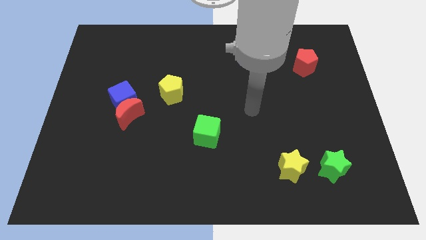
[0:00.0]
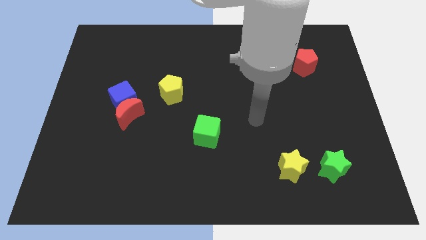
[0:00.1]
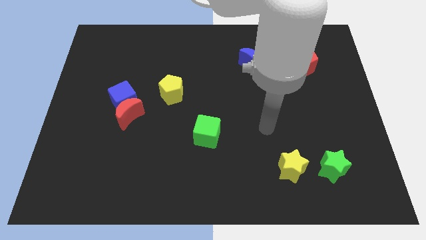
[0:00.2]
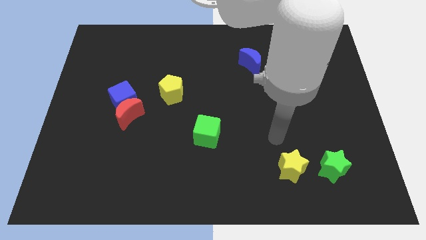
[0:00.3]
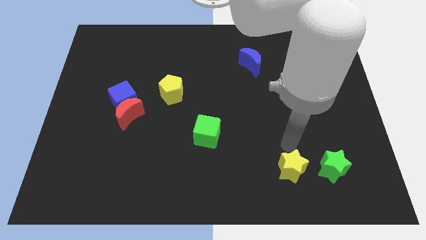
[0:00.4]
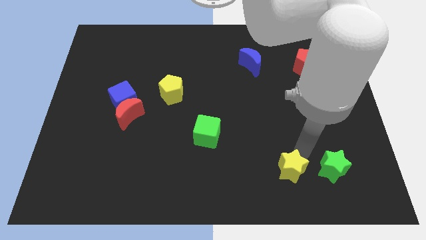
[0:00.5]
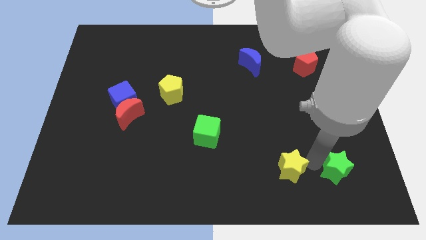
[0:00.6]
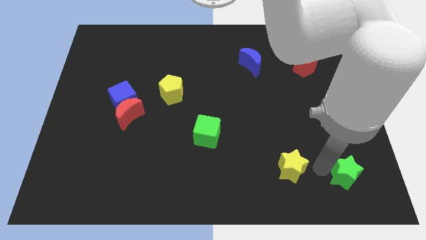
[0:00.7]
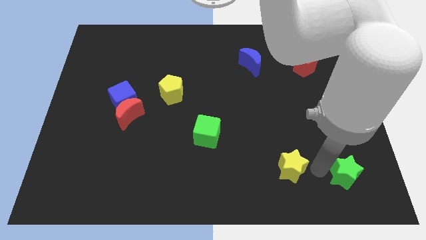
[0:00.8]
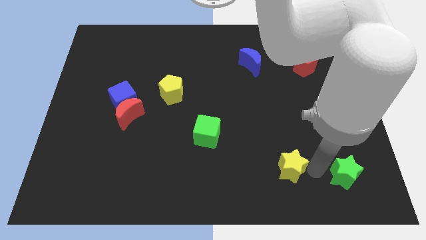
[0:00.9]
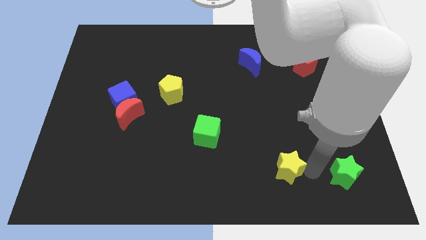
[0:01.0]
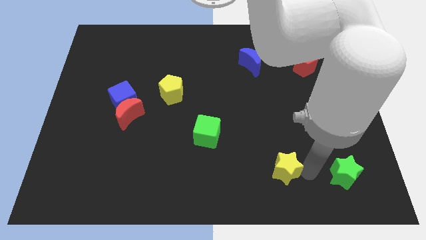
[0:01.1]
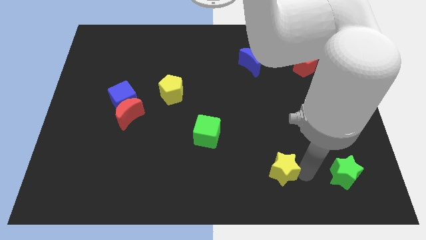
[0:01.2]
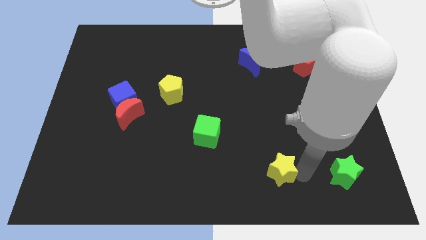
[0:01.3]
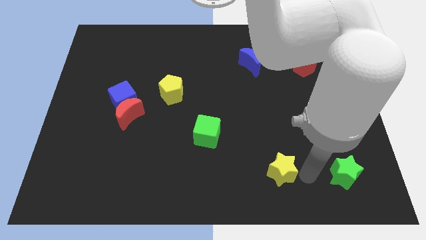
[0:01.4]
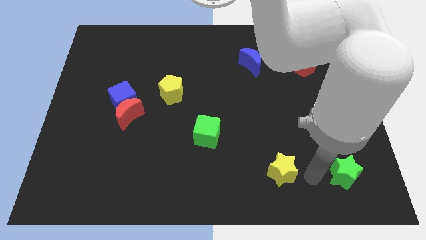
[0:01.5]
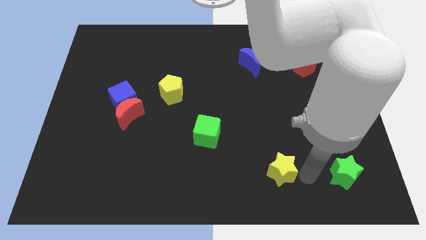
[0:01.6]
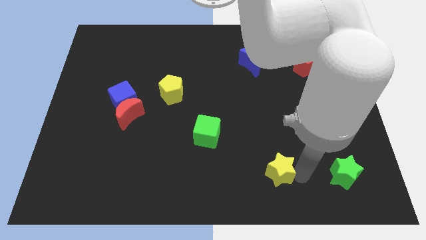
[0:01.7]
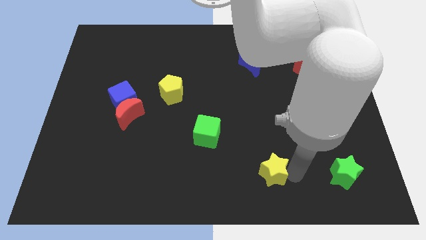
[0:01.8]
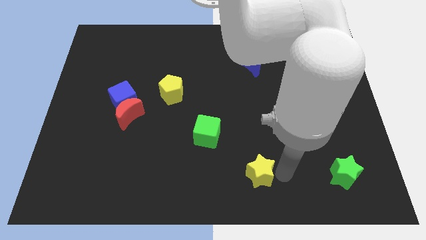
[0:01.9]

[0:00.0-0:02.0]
push the yellow star to the left a bit

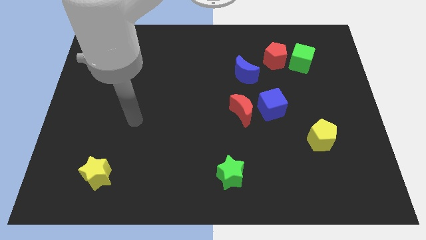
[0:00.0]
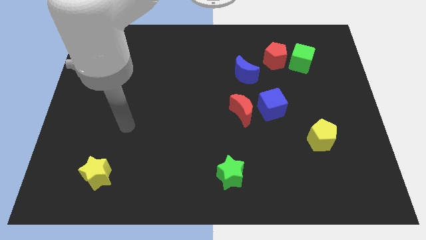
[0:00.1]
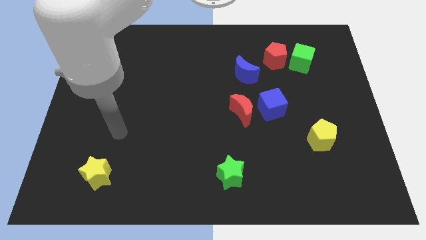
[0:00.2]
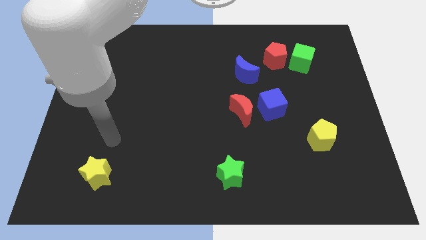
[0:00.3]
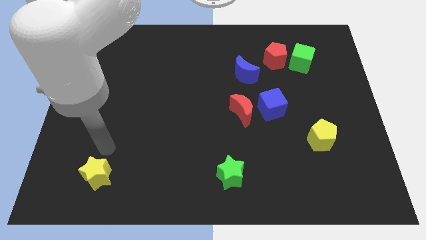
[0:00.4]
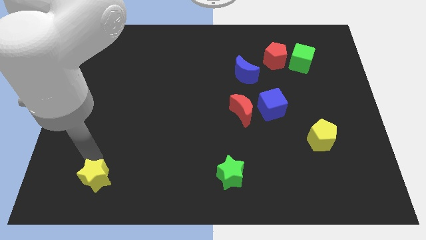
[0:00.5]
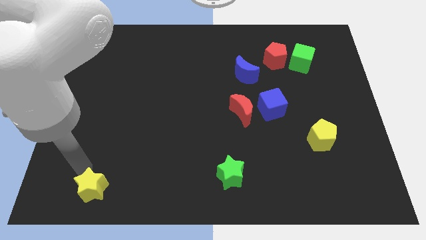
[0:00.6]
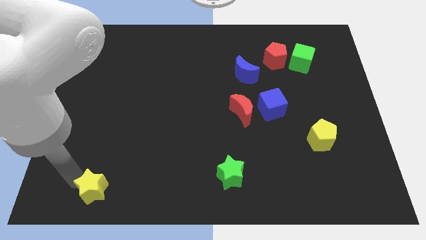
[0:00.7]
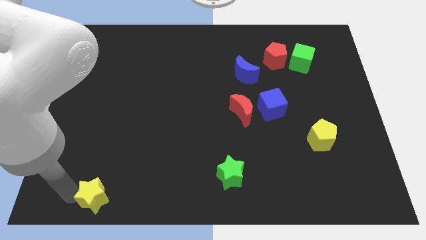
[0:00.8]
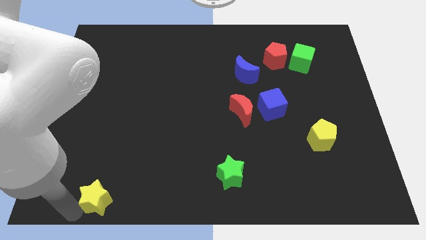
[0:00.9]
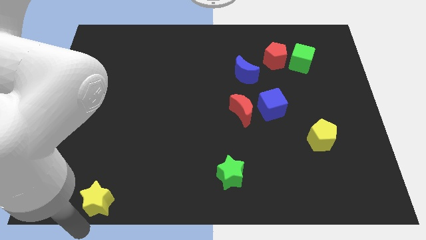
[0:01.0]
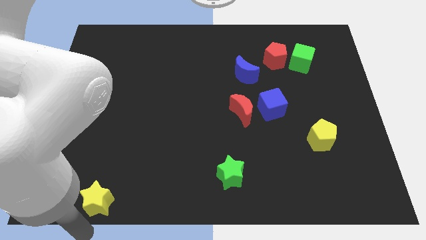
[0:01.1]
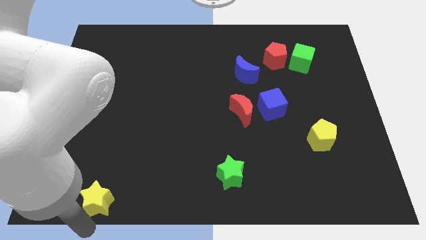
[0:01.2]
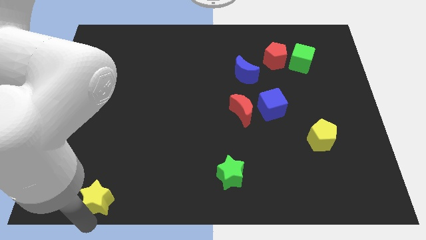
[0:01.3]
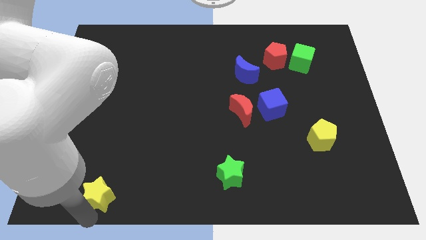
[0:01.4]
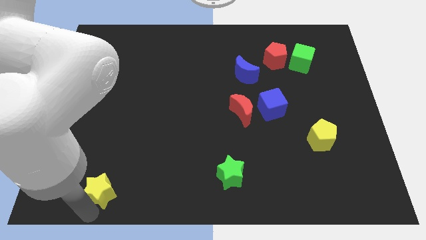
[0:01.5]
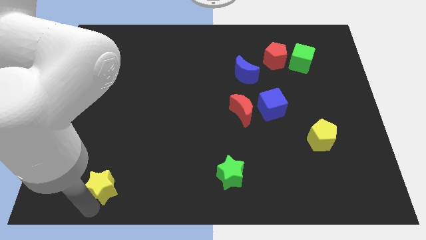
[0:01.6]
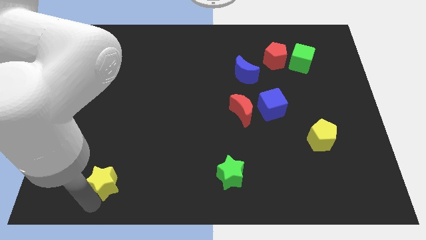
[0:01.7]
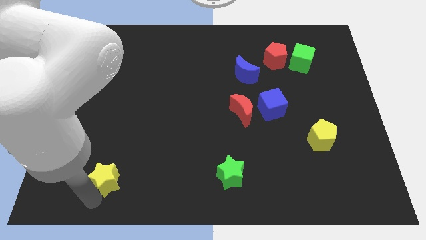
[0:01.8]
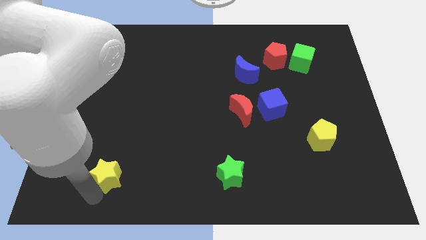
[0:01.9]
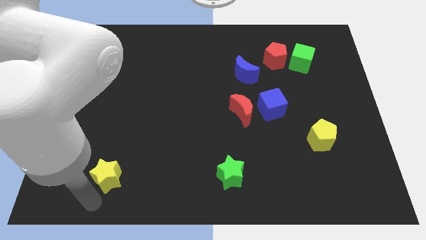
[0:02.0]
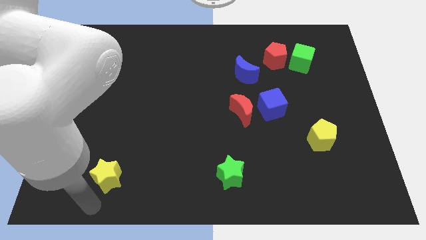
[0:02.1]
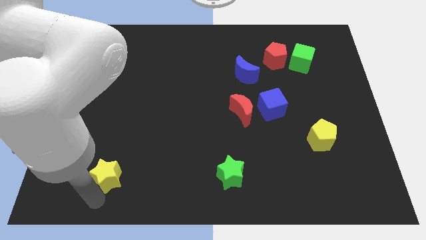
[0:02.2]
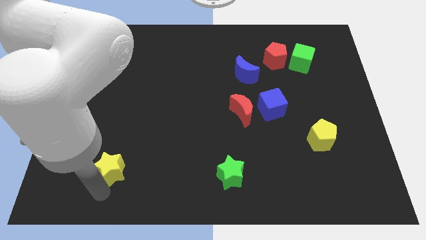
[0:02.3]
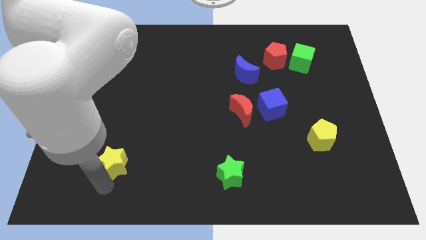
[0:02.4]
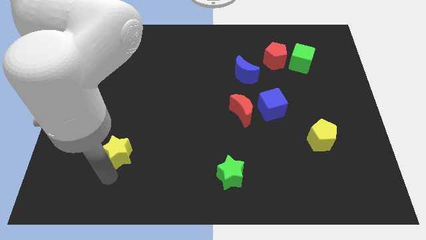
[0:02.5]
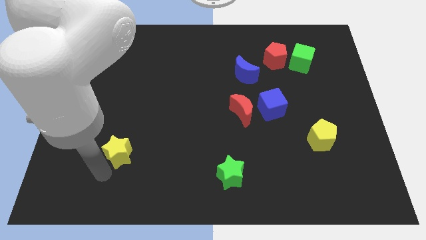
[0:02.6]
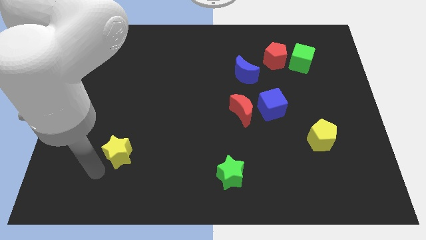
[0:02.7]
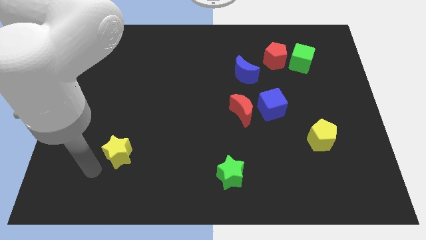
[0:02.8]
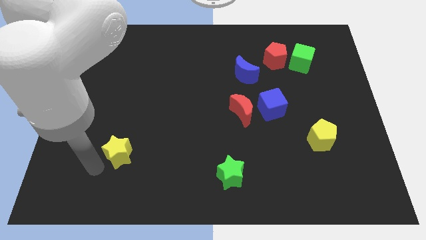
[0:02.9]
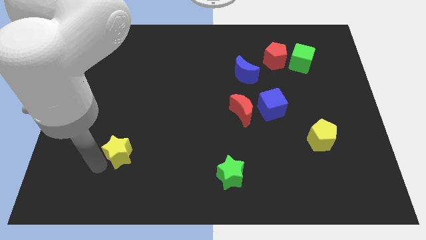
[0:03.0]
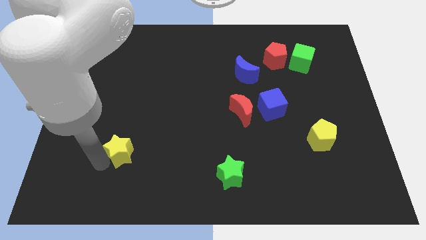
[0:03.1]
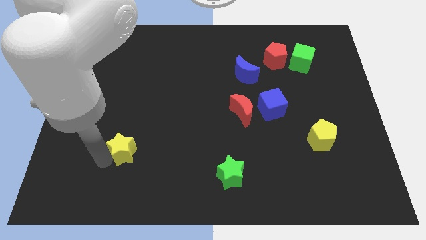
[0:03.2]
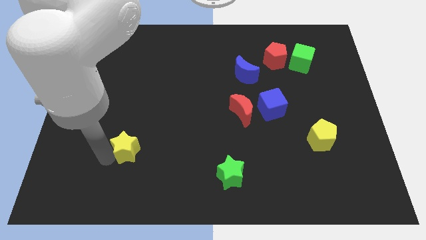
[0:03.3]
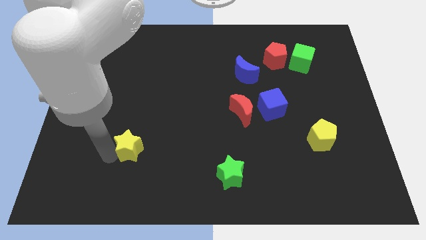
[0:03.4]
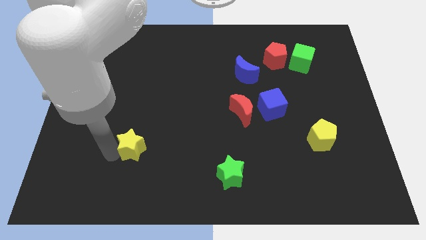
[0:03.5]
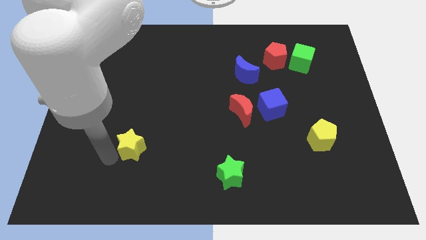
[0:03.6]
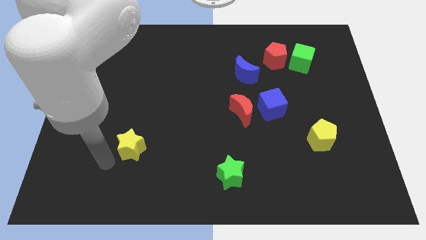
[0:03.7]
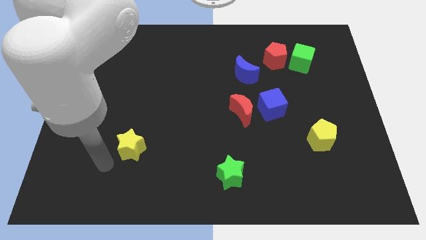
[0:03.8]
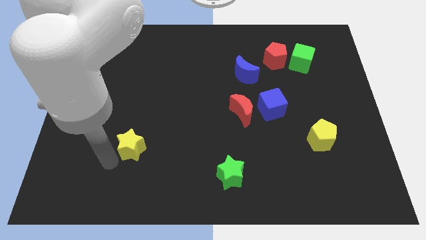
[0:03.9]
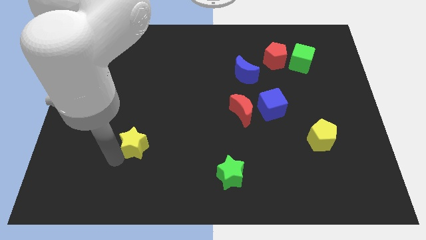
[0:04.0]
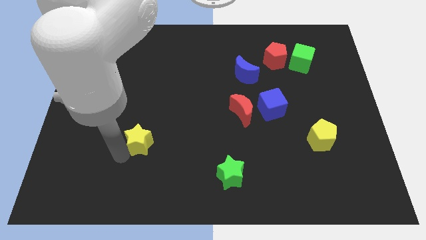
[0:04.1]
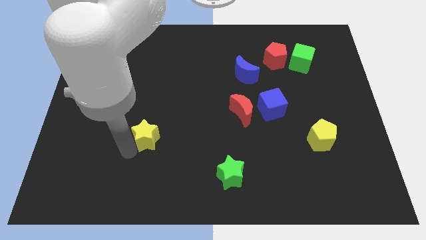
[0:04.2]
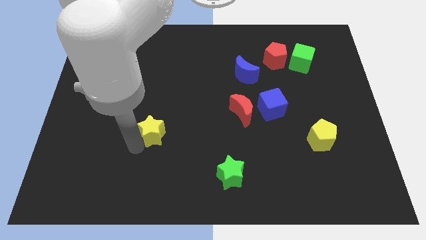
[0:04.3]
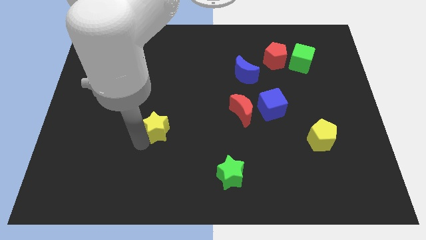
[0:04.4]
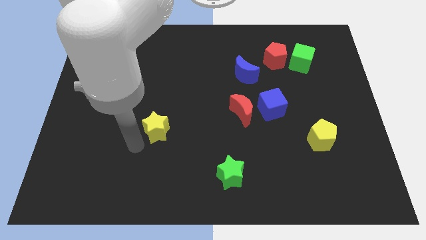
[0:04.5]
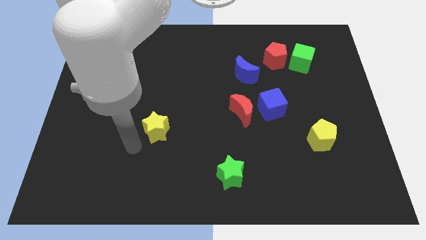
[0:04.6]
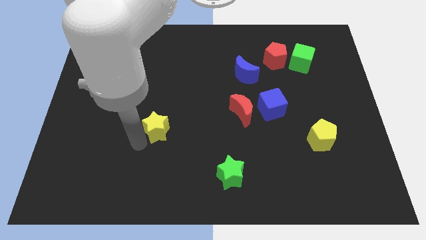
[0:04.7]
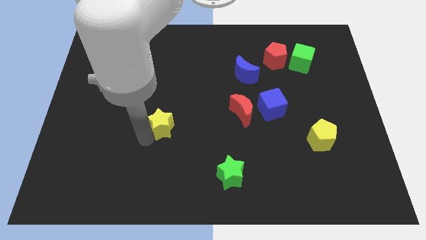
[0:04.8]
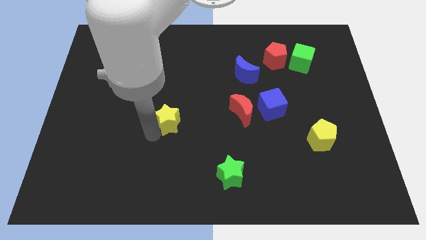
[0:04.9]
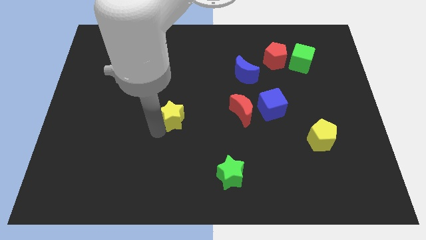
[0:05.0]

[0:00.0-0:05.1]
move the yellow star upwards and right

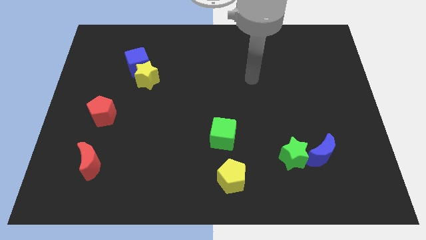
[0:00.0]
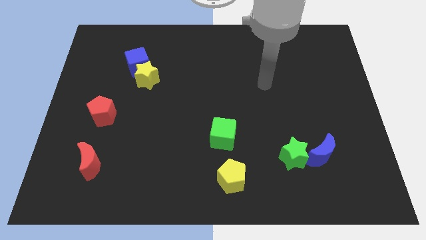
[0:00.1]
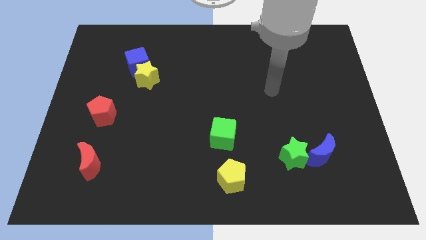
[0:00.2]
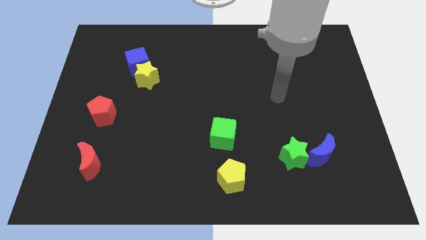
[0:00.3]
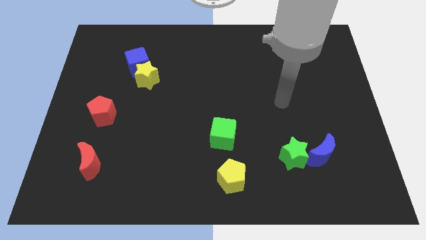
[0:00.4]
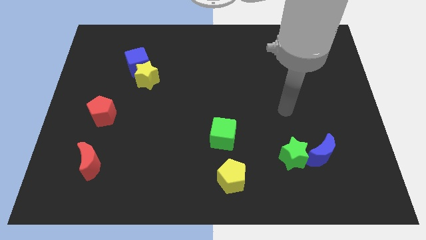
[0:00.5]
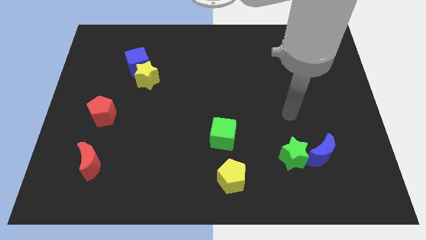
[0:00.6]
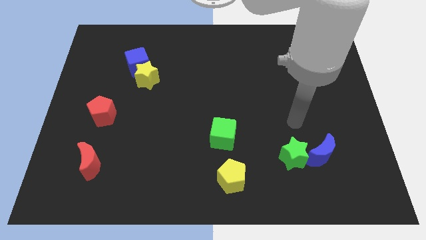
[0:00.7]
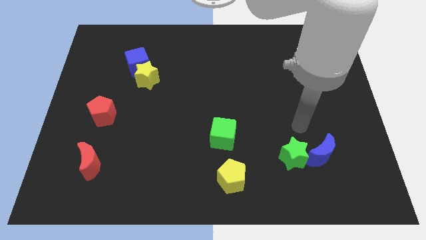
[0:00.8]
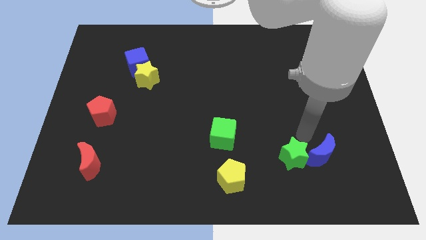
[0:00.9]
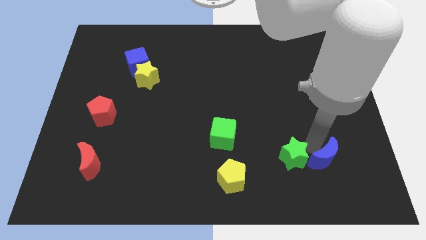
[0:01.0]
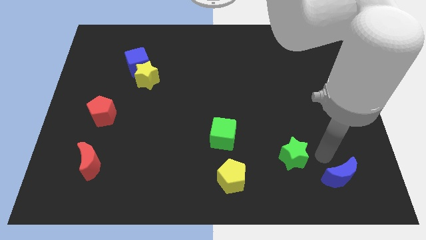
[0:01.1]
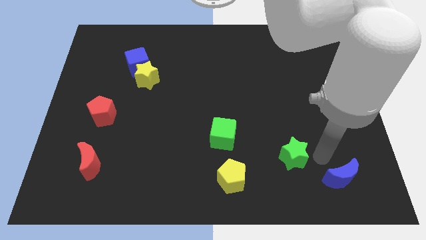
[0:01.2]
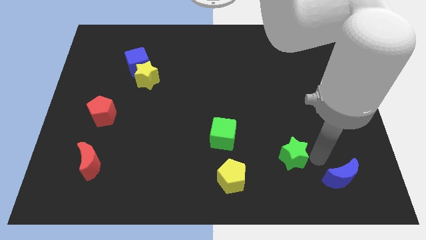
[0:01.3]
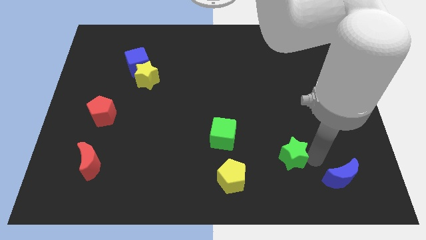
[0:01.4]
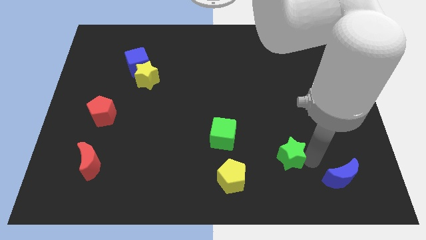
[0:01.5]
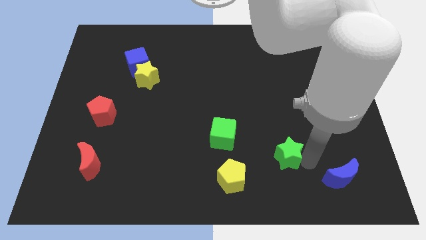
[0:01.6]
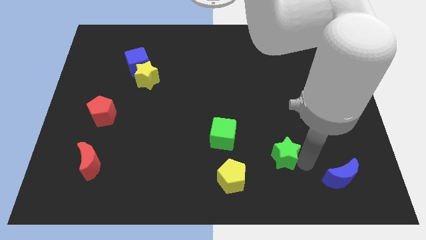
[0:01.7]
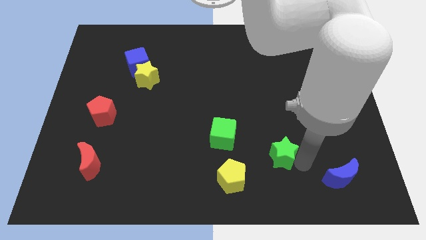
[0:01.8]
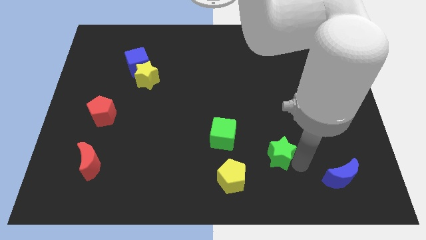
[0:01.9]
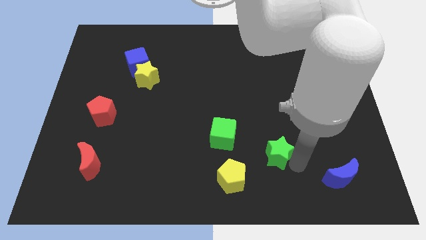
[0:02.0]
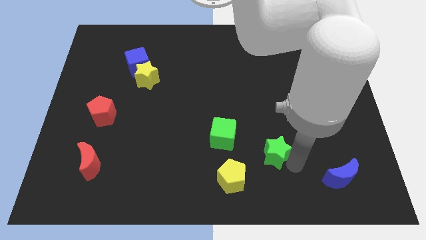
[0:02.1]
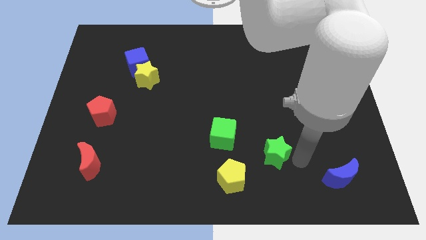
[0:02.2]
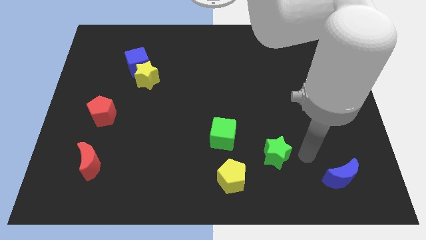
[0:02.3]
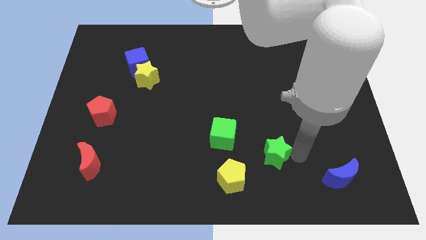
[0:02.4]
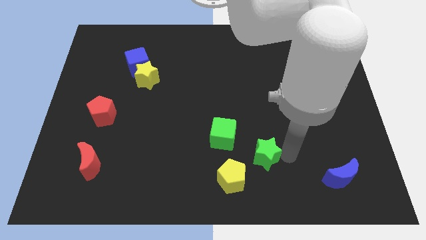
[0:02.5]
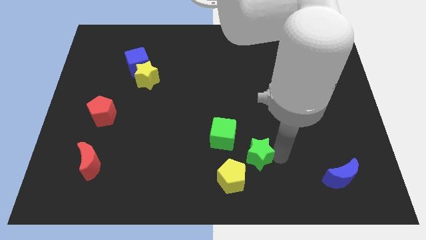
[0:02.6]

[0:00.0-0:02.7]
move the green star a little bit to the left
